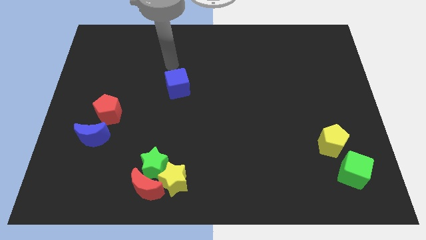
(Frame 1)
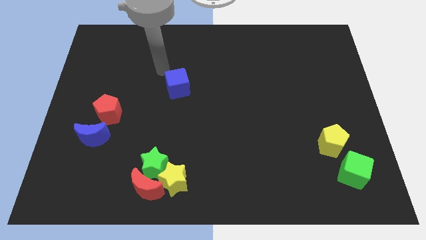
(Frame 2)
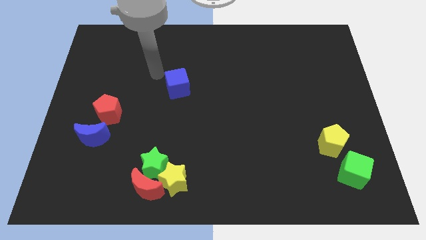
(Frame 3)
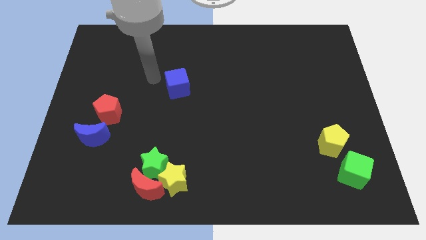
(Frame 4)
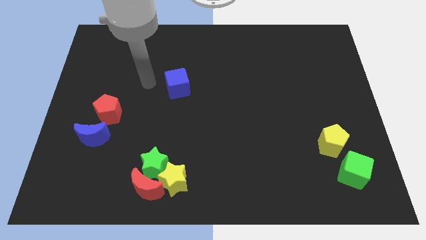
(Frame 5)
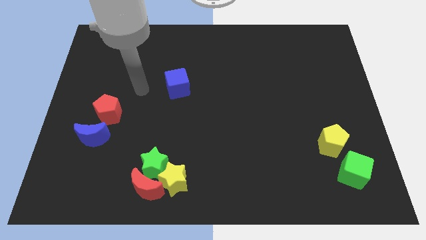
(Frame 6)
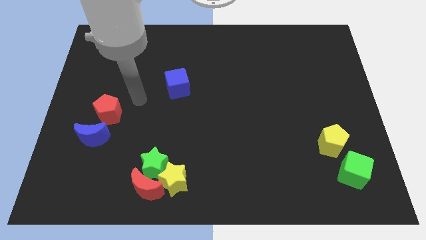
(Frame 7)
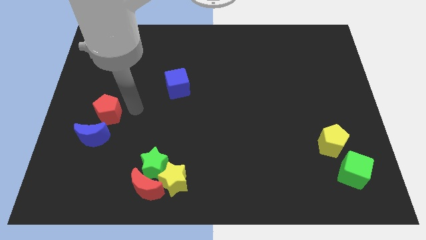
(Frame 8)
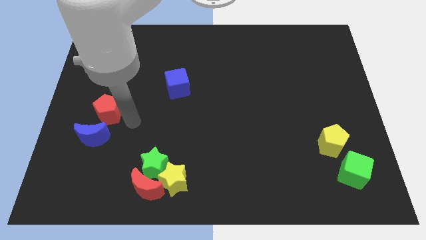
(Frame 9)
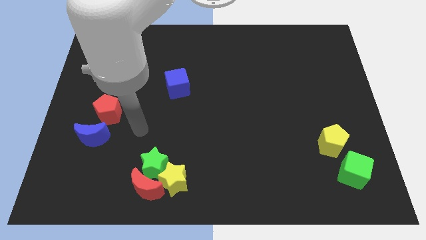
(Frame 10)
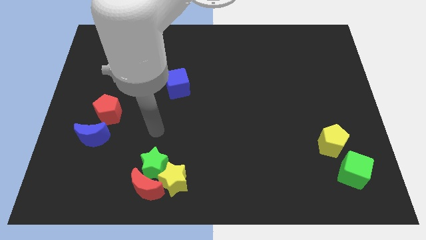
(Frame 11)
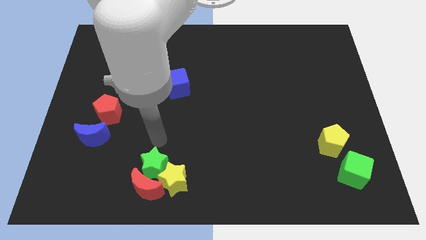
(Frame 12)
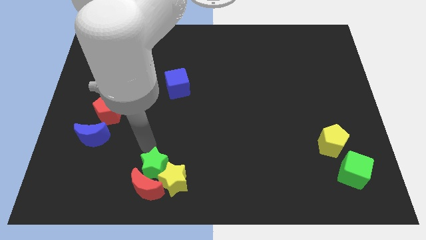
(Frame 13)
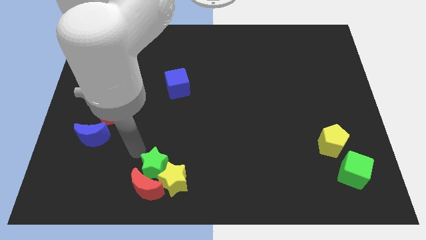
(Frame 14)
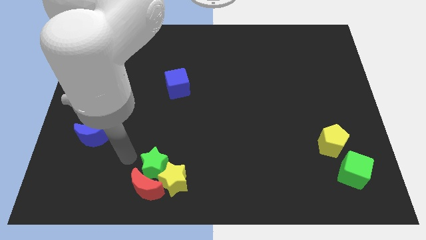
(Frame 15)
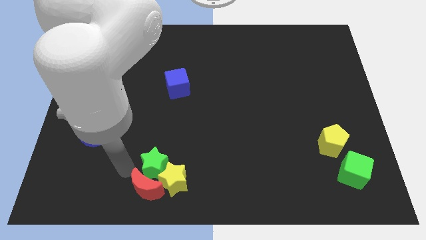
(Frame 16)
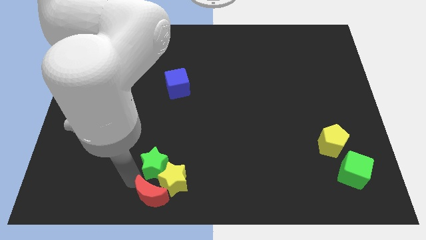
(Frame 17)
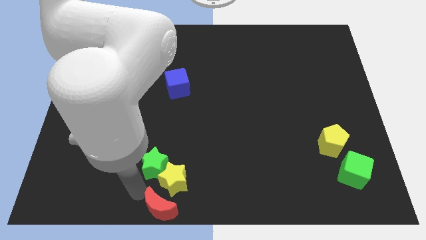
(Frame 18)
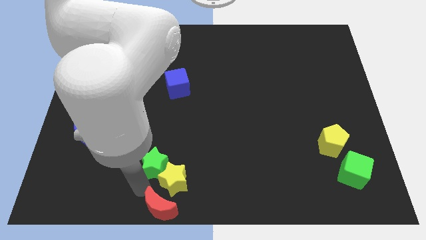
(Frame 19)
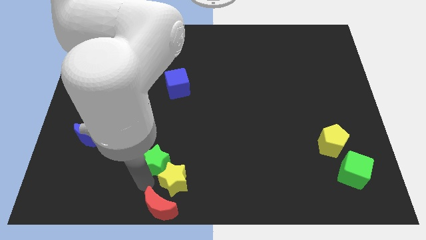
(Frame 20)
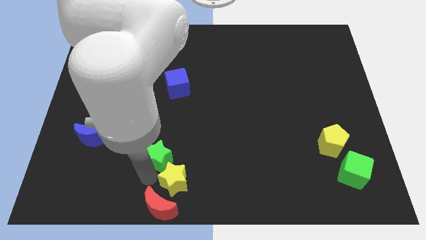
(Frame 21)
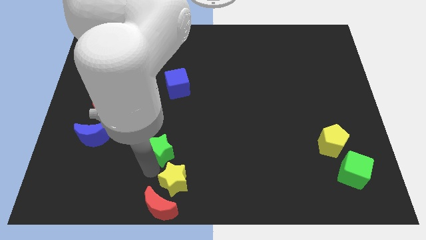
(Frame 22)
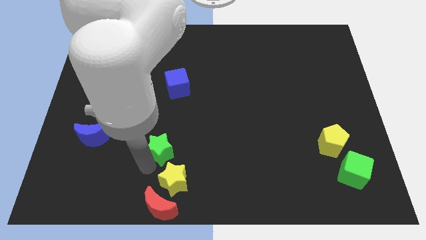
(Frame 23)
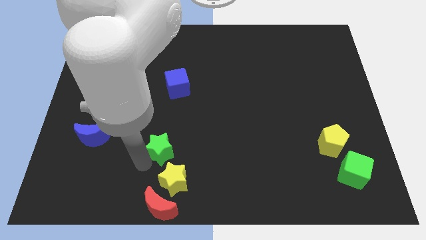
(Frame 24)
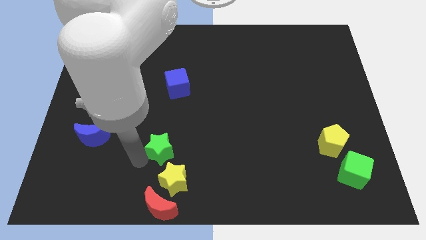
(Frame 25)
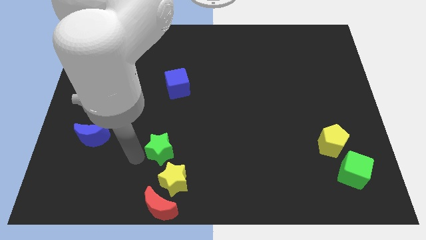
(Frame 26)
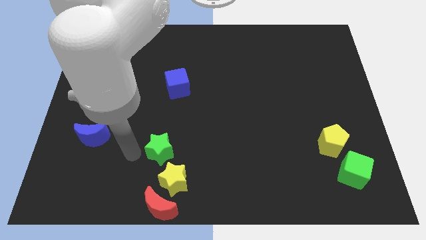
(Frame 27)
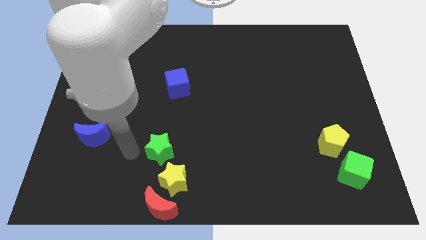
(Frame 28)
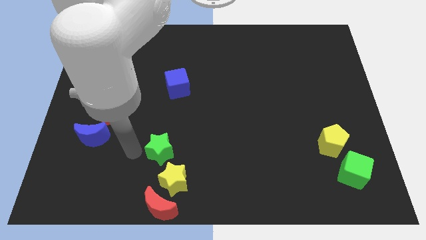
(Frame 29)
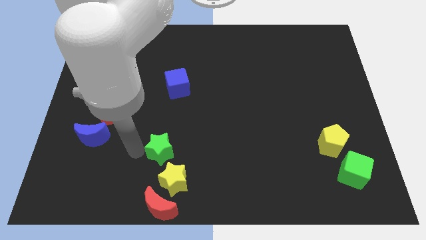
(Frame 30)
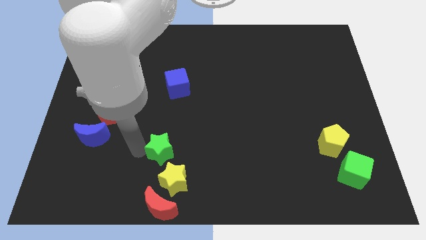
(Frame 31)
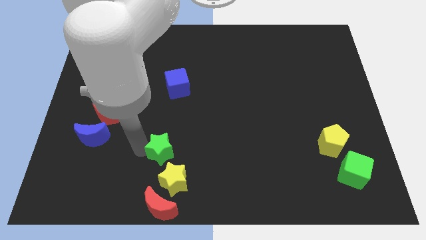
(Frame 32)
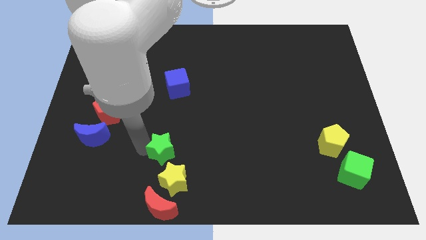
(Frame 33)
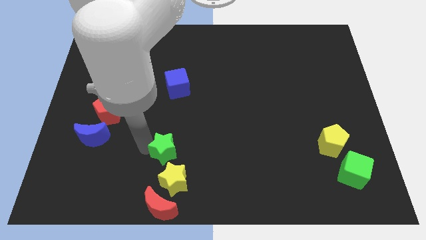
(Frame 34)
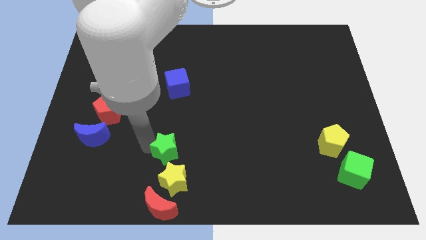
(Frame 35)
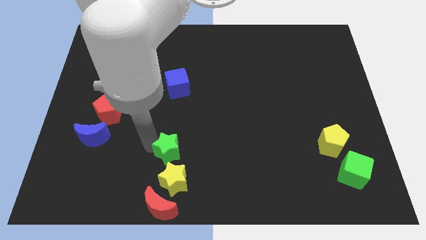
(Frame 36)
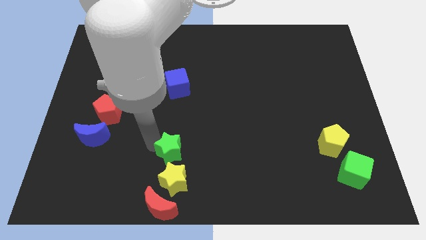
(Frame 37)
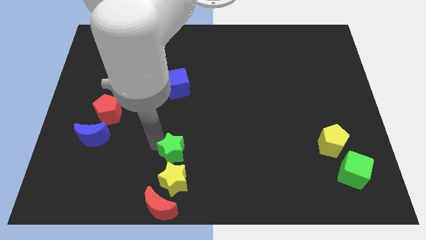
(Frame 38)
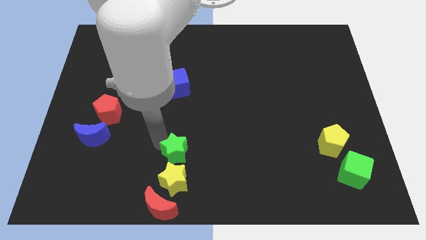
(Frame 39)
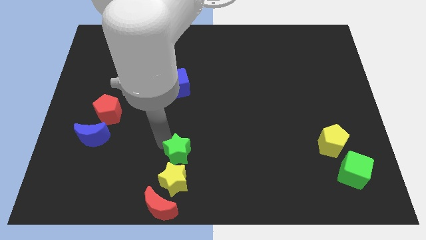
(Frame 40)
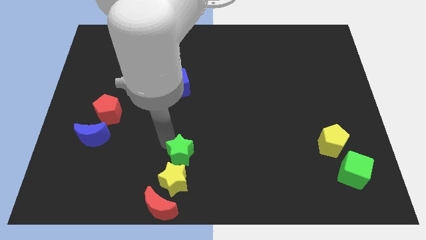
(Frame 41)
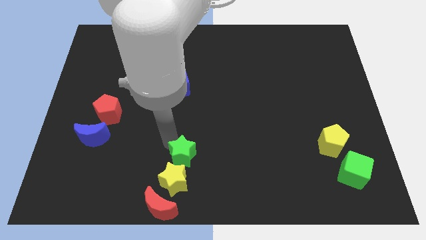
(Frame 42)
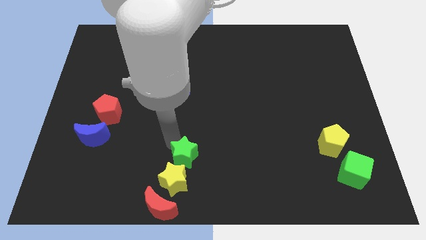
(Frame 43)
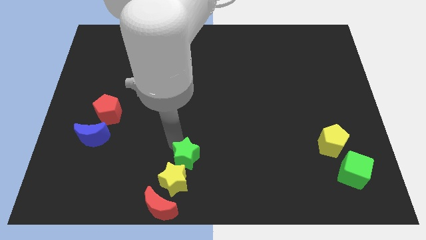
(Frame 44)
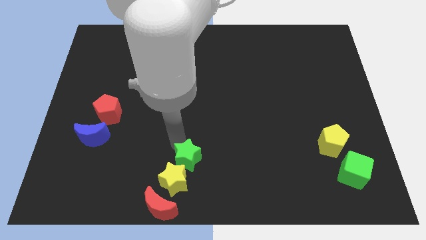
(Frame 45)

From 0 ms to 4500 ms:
slightly push the green star right

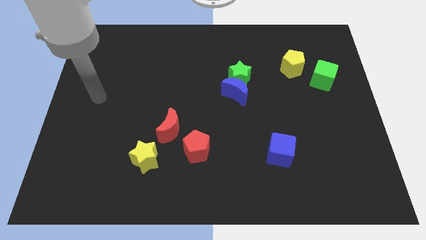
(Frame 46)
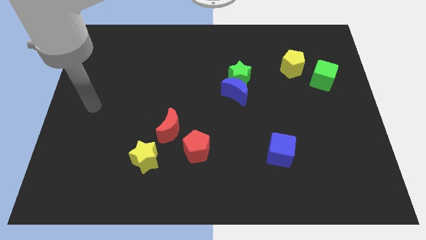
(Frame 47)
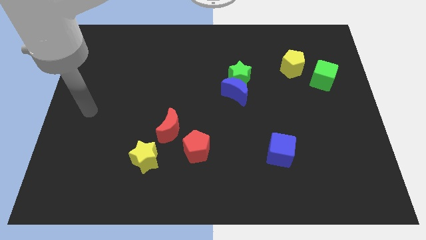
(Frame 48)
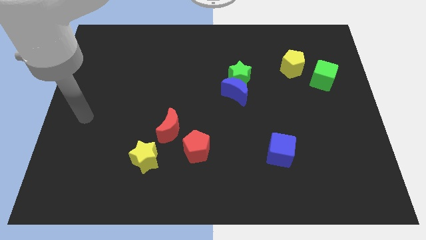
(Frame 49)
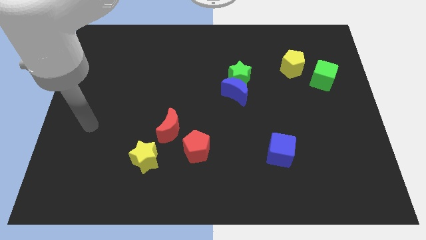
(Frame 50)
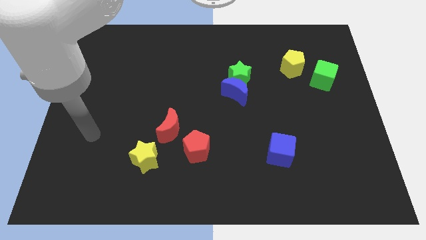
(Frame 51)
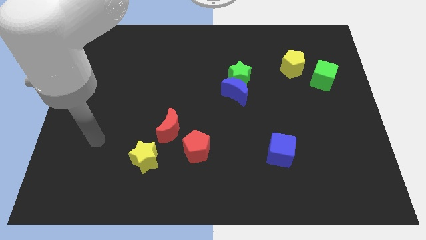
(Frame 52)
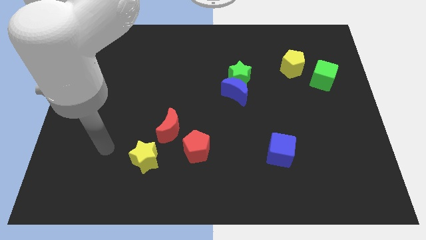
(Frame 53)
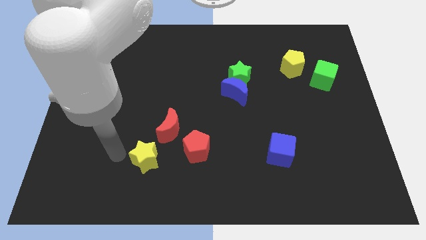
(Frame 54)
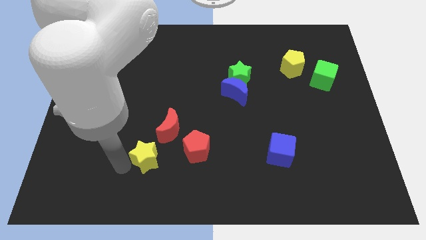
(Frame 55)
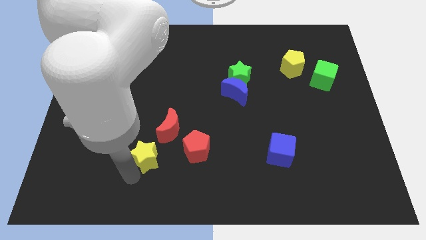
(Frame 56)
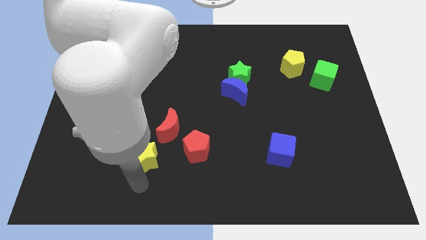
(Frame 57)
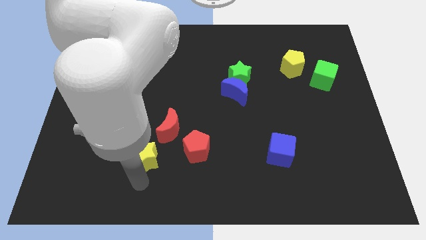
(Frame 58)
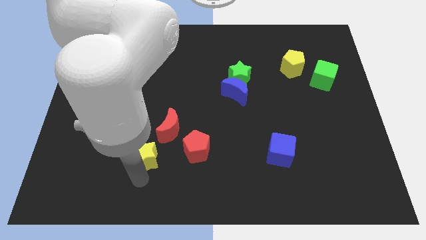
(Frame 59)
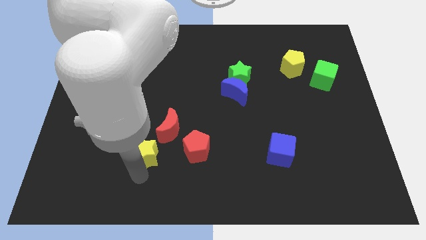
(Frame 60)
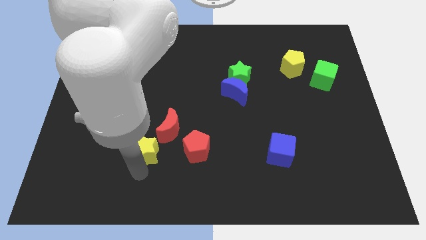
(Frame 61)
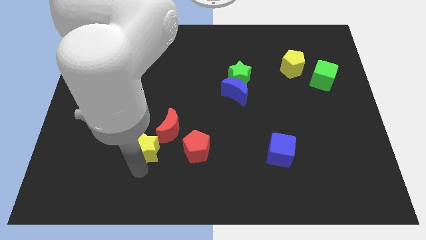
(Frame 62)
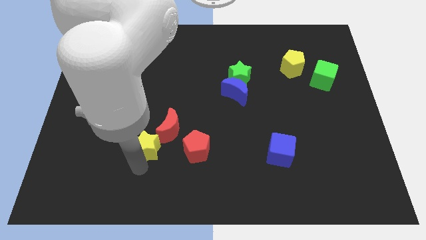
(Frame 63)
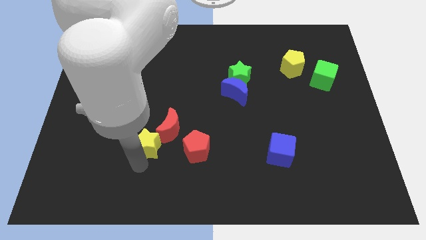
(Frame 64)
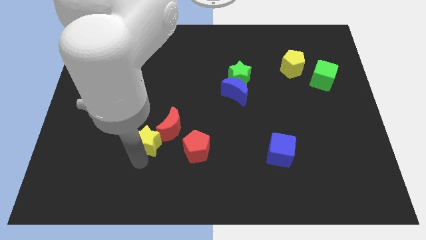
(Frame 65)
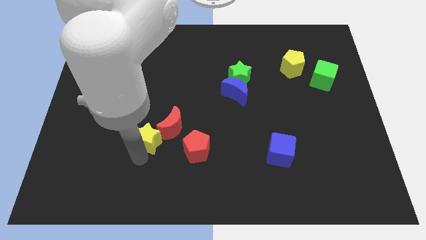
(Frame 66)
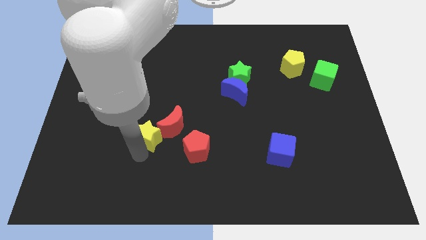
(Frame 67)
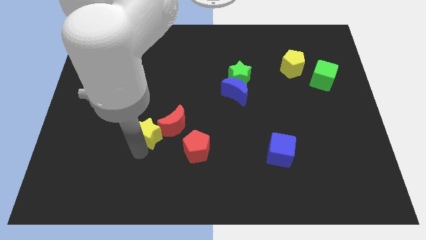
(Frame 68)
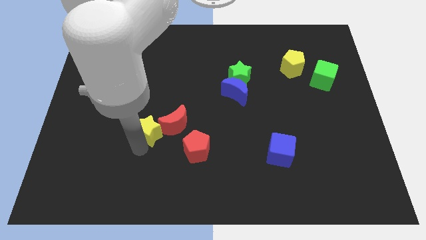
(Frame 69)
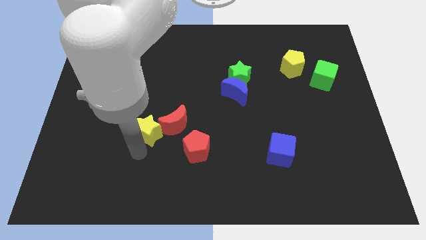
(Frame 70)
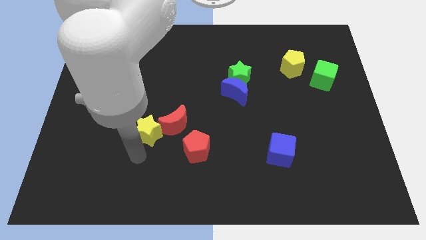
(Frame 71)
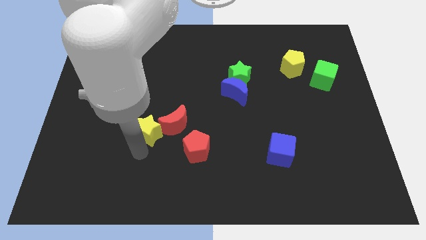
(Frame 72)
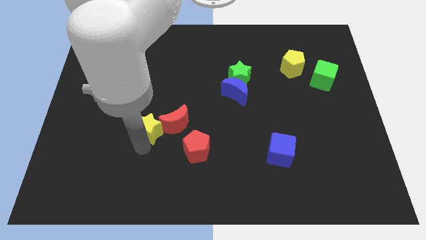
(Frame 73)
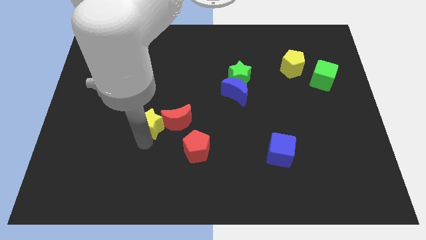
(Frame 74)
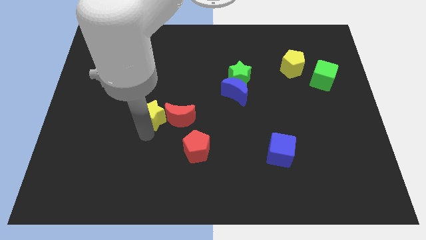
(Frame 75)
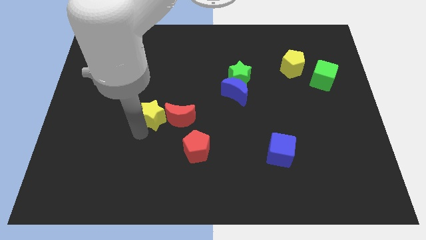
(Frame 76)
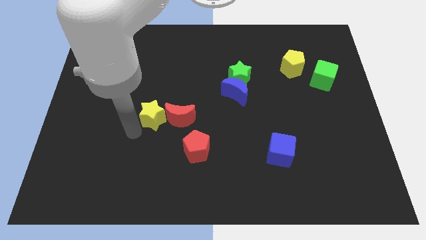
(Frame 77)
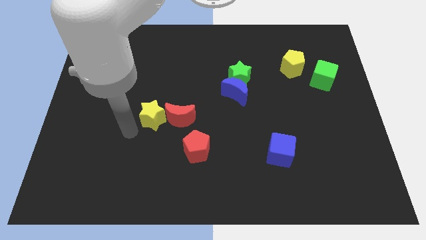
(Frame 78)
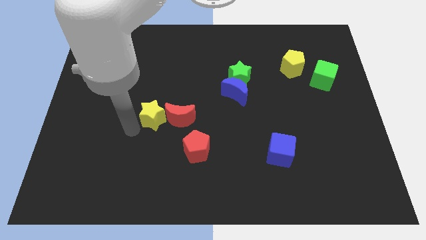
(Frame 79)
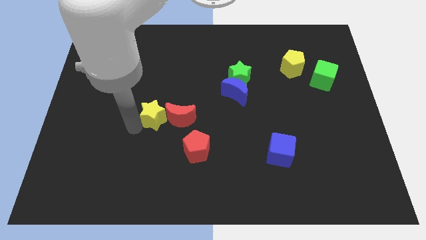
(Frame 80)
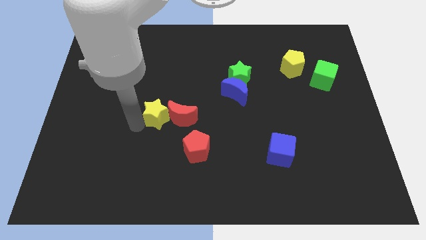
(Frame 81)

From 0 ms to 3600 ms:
move the yellow star up and to the right a little bit
